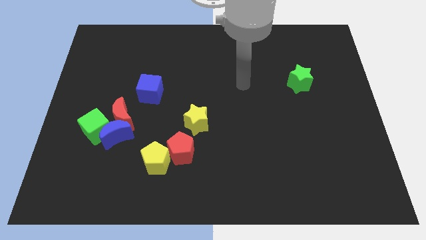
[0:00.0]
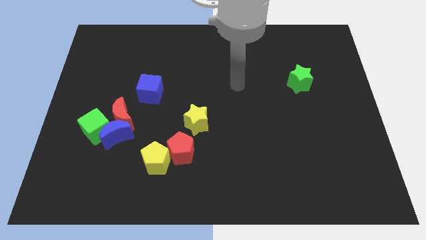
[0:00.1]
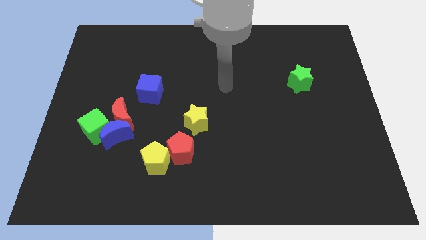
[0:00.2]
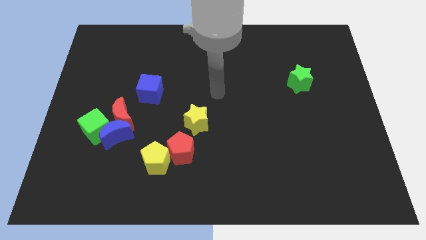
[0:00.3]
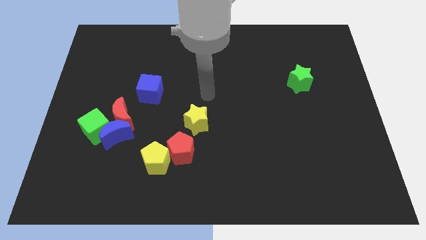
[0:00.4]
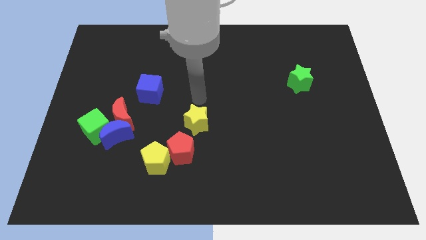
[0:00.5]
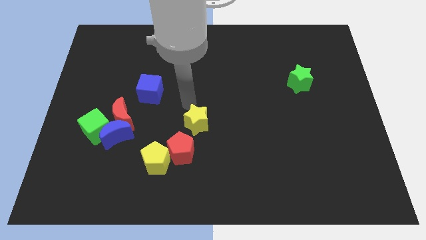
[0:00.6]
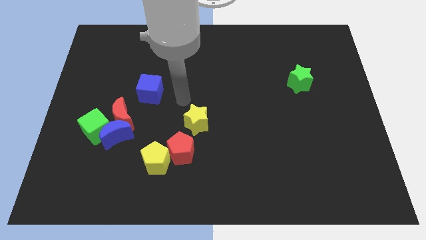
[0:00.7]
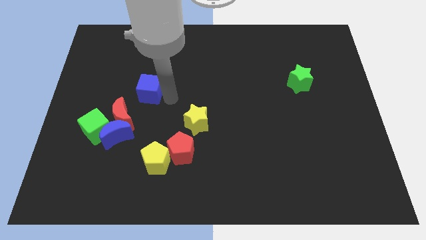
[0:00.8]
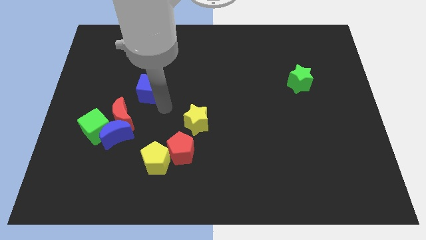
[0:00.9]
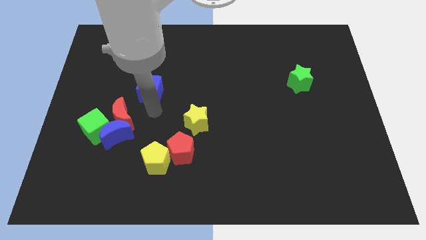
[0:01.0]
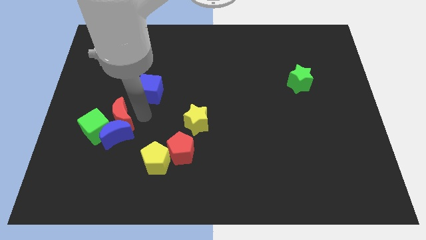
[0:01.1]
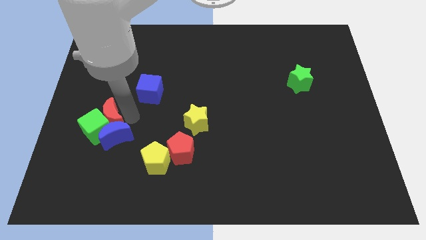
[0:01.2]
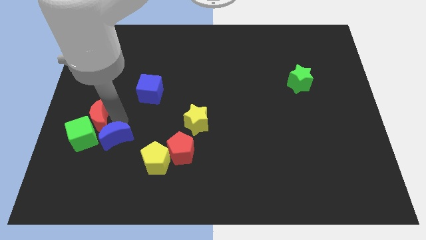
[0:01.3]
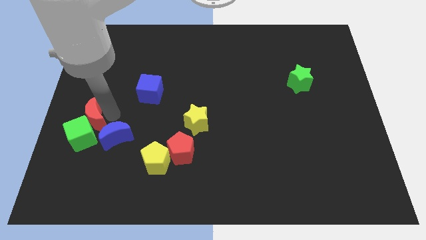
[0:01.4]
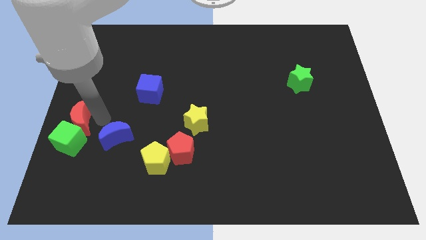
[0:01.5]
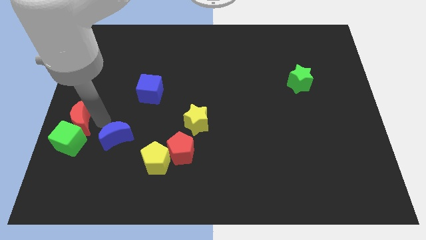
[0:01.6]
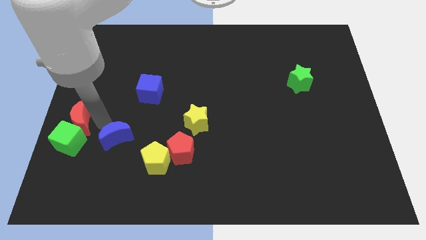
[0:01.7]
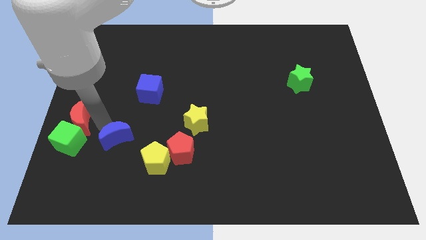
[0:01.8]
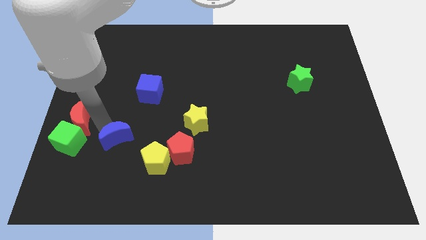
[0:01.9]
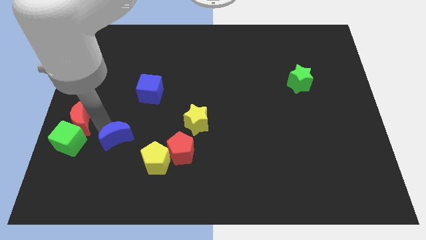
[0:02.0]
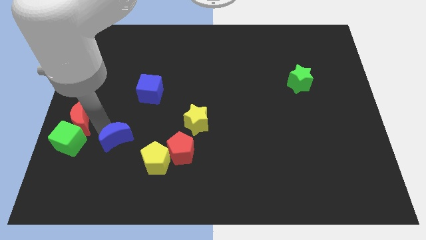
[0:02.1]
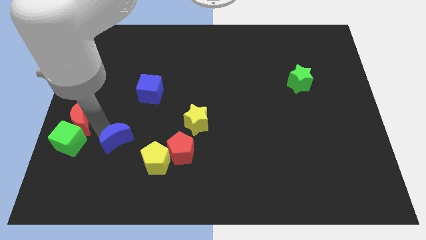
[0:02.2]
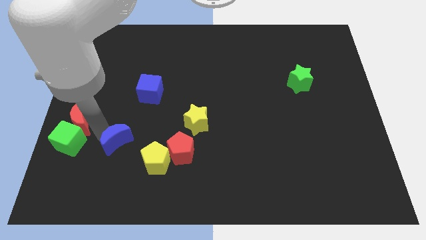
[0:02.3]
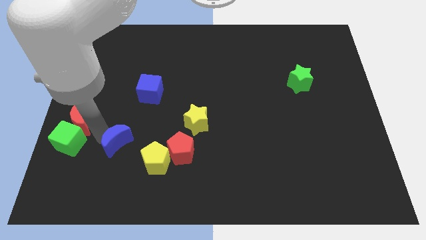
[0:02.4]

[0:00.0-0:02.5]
move the blue moon away from the red moon and green cube

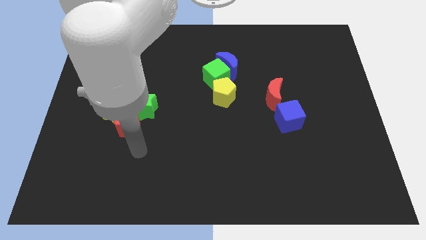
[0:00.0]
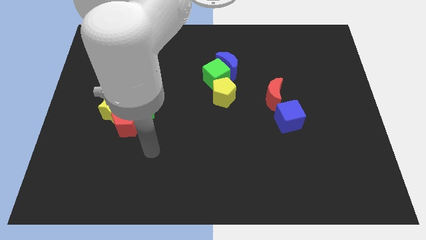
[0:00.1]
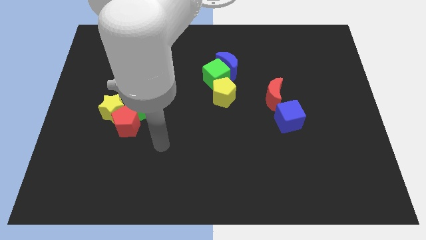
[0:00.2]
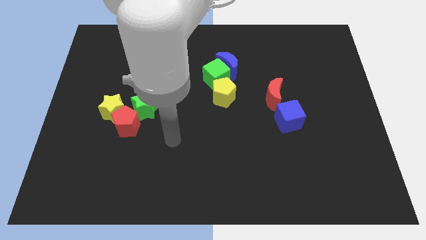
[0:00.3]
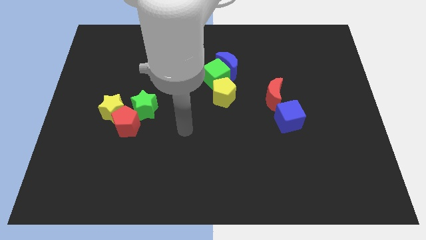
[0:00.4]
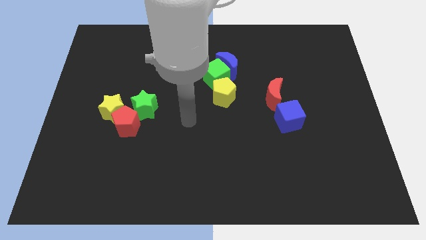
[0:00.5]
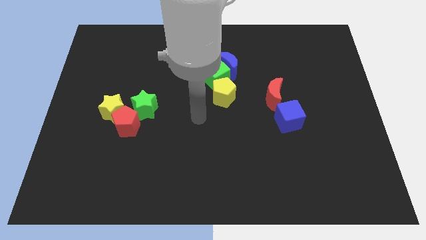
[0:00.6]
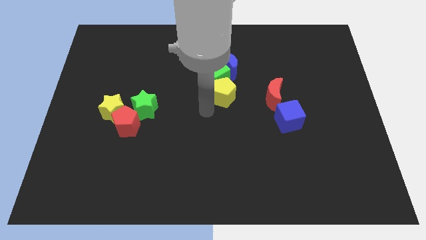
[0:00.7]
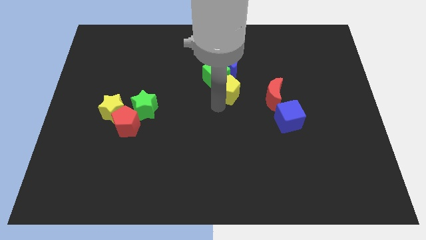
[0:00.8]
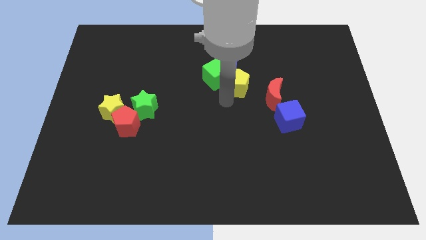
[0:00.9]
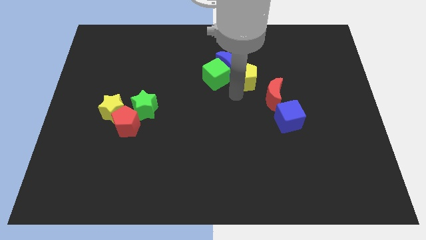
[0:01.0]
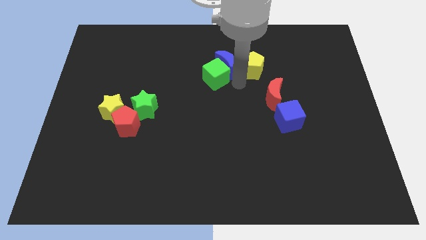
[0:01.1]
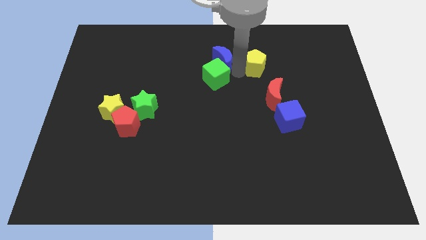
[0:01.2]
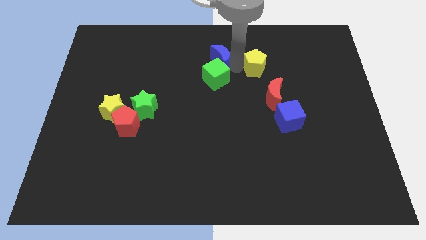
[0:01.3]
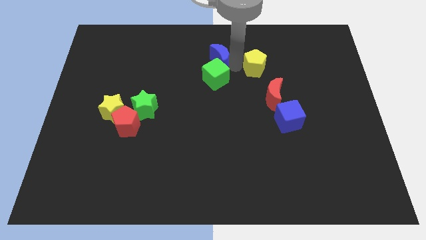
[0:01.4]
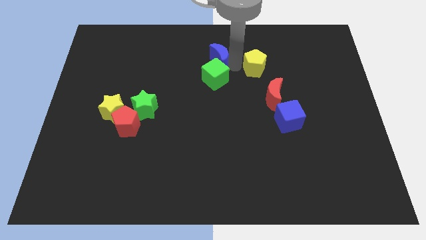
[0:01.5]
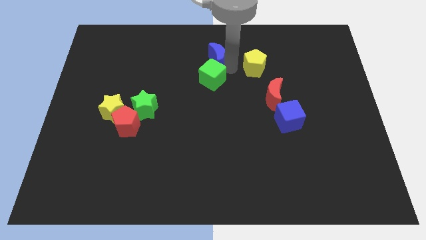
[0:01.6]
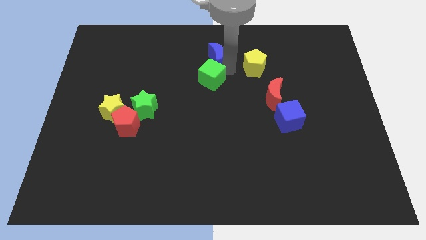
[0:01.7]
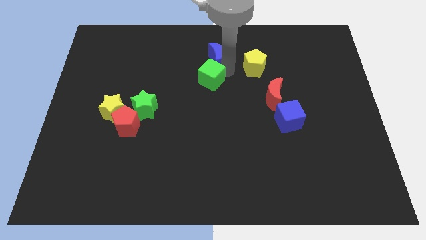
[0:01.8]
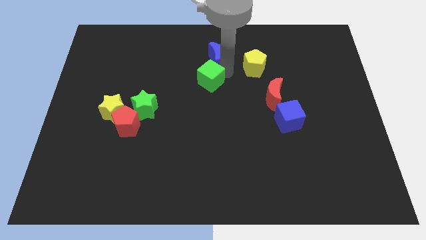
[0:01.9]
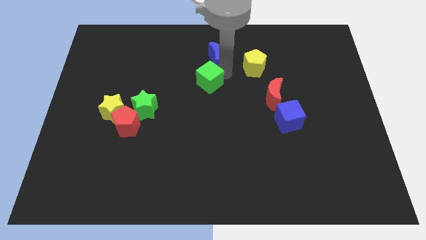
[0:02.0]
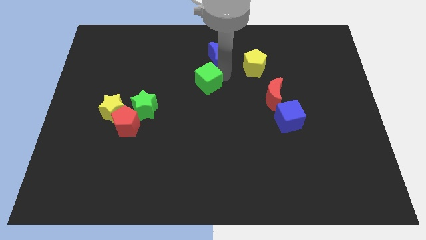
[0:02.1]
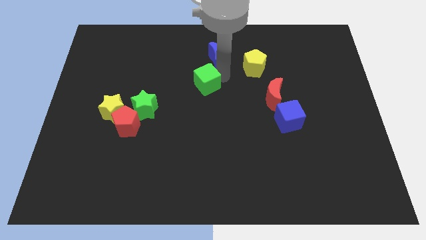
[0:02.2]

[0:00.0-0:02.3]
pull the green cube apart from the blue moon and yellow pentagon

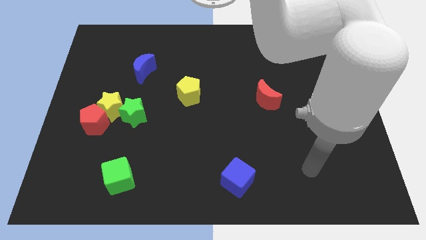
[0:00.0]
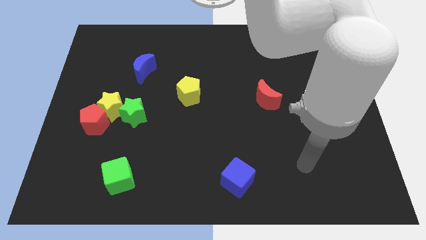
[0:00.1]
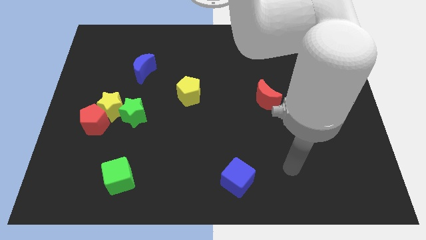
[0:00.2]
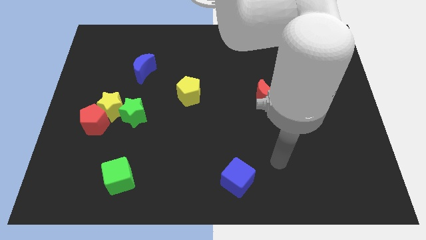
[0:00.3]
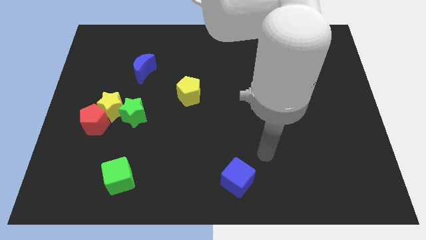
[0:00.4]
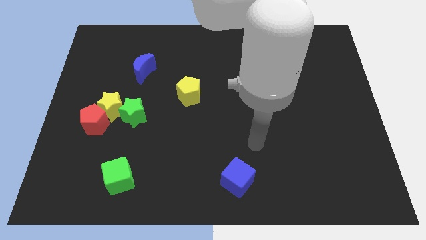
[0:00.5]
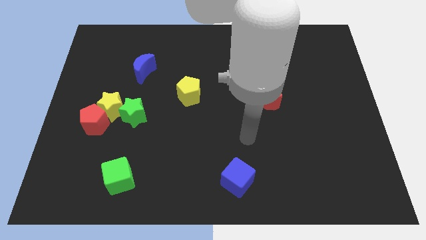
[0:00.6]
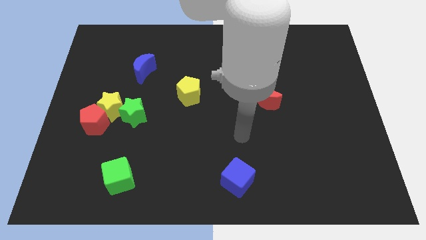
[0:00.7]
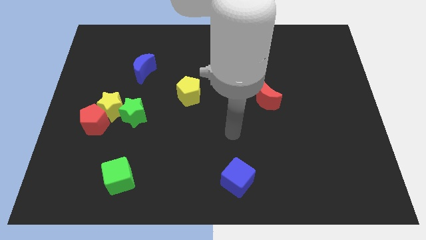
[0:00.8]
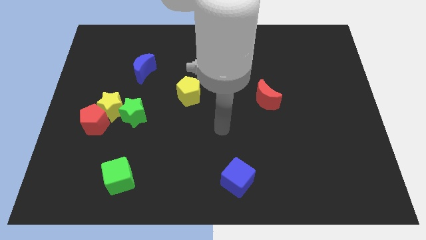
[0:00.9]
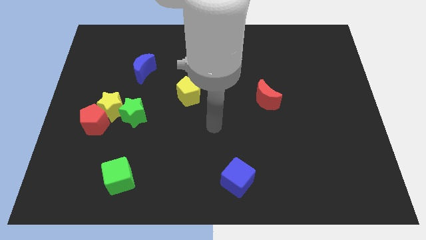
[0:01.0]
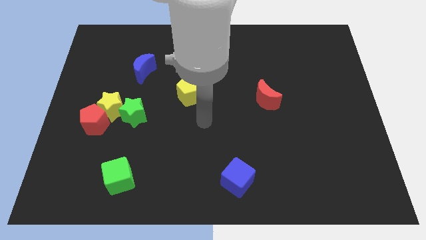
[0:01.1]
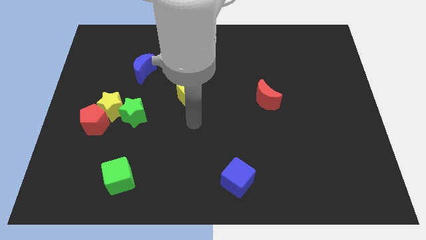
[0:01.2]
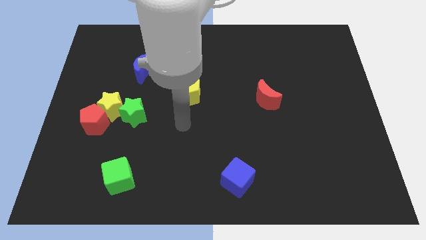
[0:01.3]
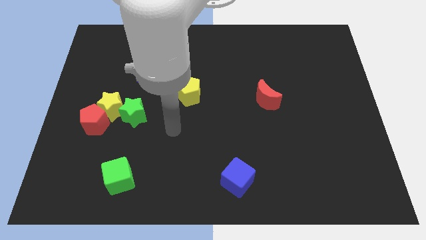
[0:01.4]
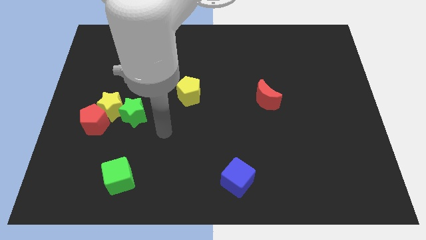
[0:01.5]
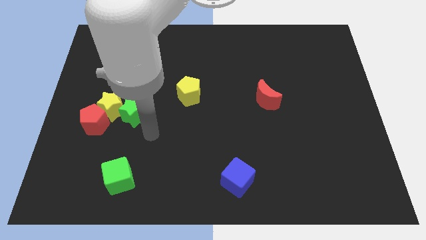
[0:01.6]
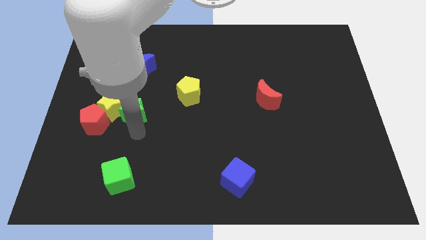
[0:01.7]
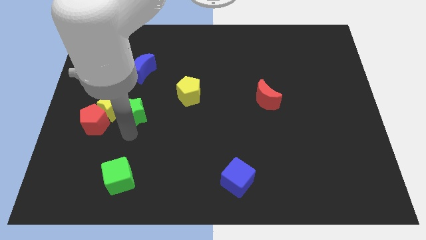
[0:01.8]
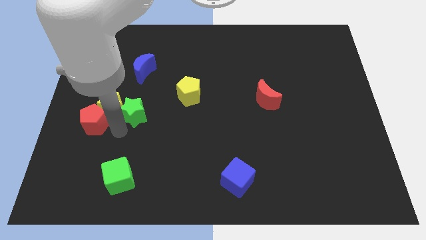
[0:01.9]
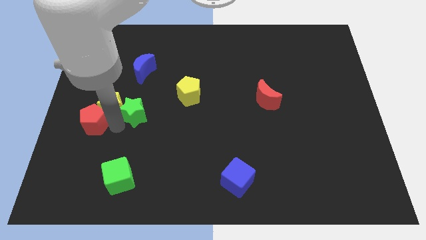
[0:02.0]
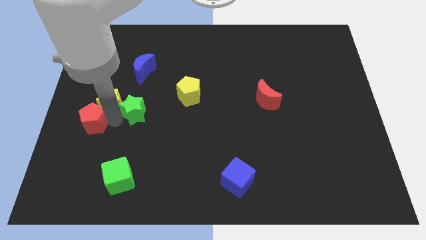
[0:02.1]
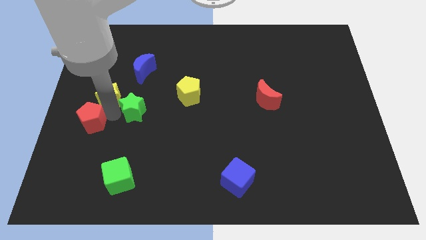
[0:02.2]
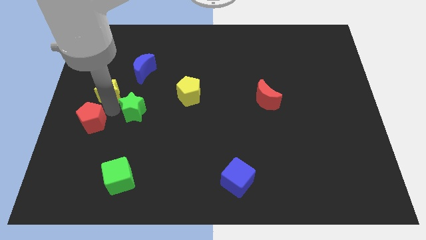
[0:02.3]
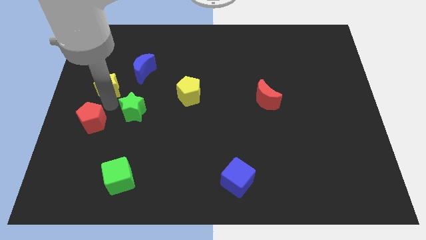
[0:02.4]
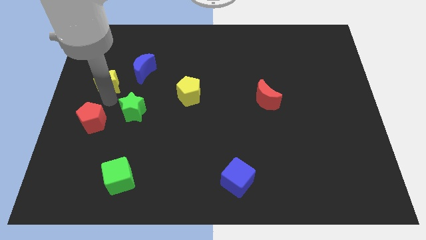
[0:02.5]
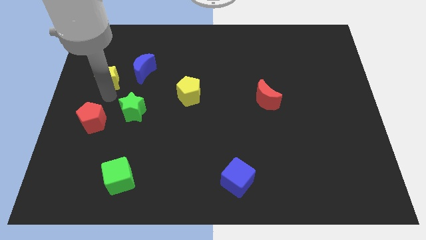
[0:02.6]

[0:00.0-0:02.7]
move the yellow star away from the red pentagon and green star

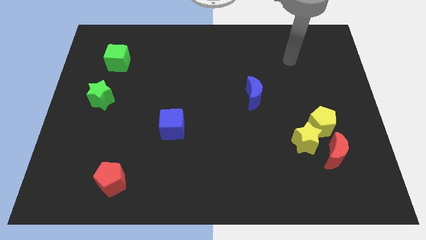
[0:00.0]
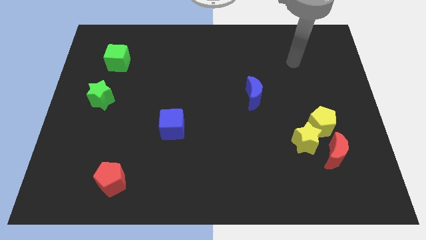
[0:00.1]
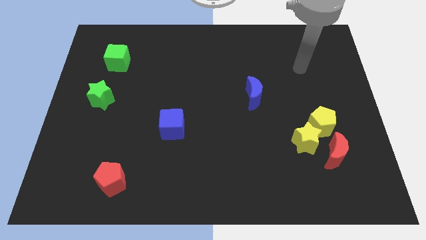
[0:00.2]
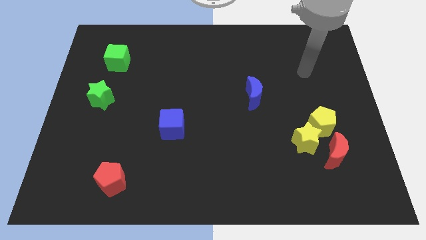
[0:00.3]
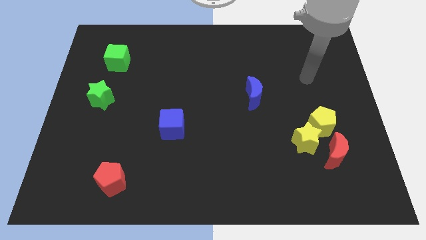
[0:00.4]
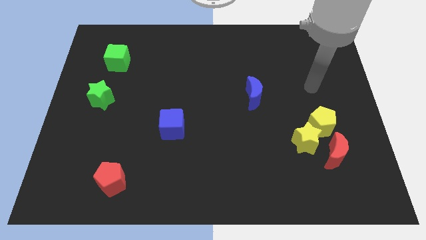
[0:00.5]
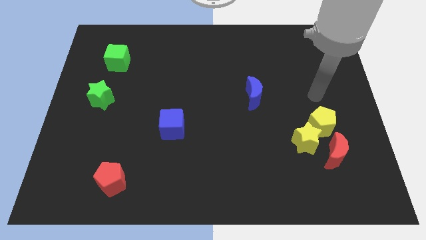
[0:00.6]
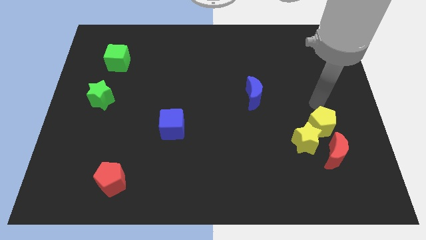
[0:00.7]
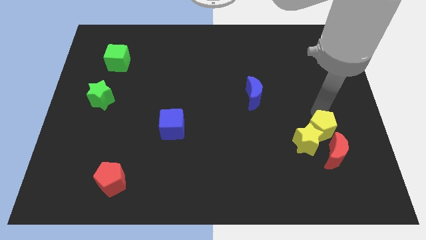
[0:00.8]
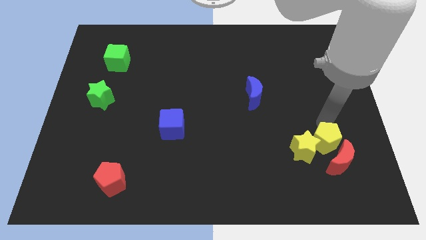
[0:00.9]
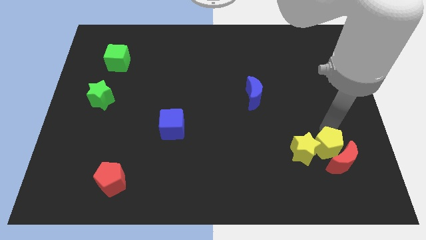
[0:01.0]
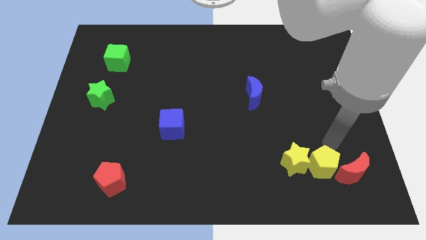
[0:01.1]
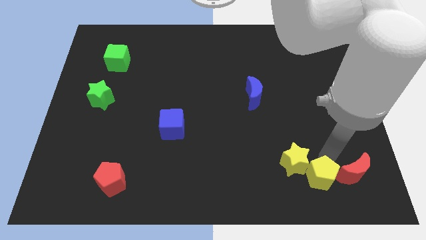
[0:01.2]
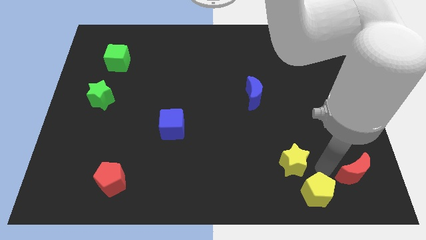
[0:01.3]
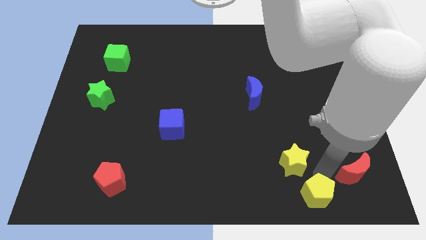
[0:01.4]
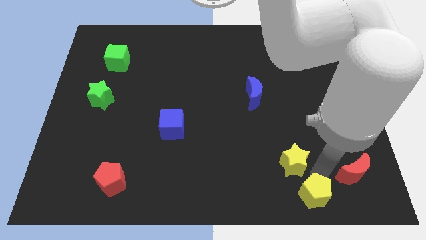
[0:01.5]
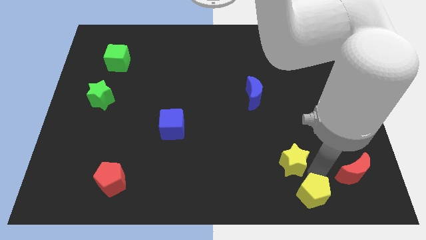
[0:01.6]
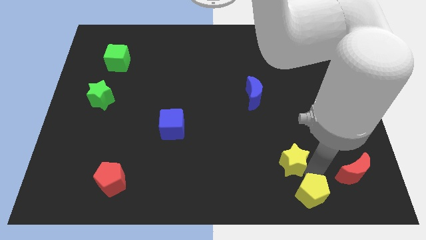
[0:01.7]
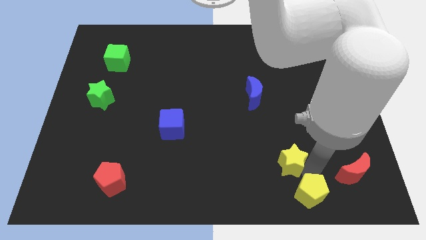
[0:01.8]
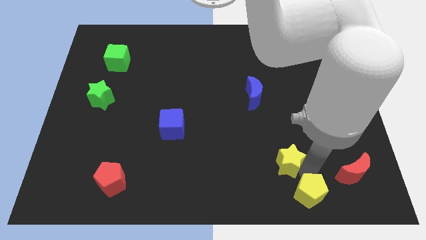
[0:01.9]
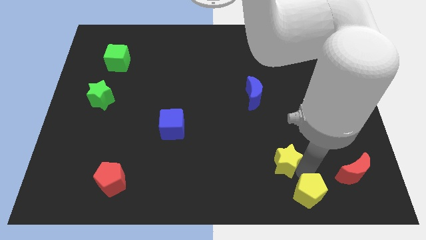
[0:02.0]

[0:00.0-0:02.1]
pull the yellow star apart from the yellow pentagon and red moon
